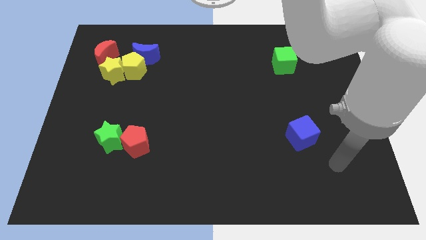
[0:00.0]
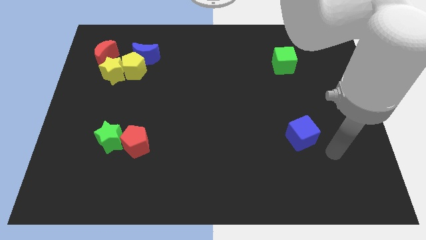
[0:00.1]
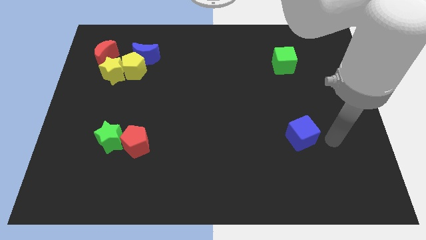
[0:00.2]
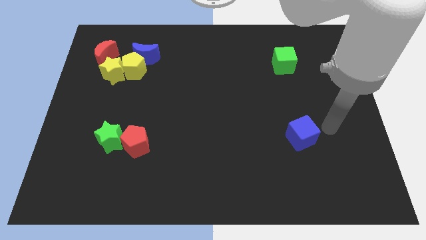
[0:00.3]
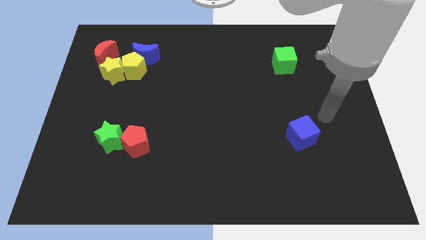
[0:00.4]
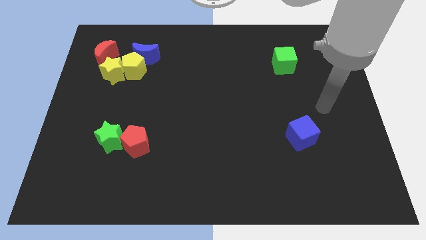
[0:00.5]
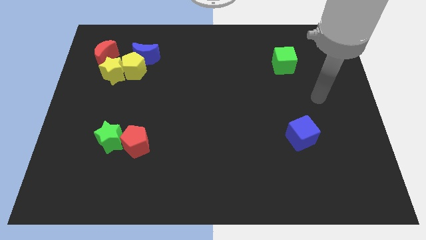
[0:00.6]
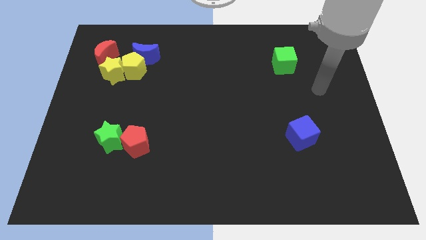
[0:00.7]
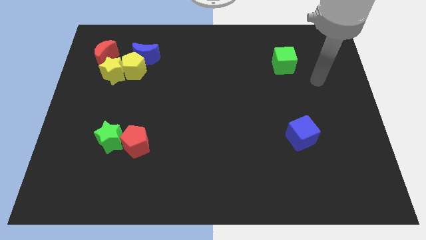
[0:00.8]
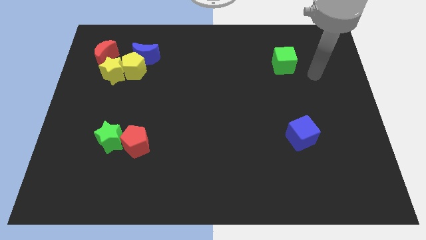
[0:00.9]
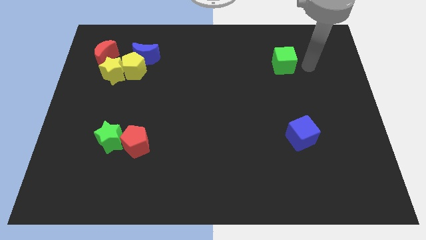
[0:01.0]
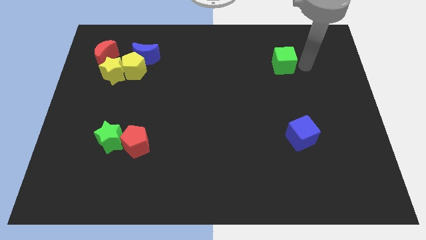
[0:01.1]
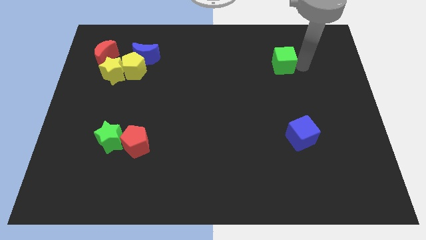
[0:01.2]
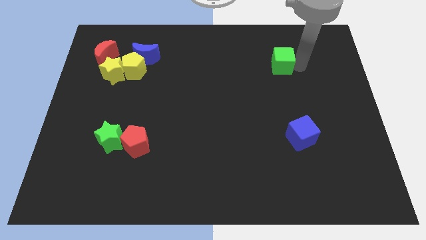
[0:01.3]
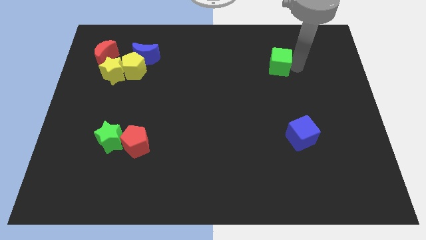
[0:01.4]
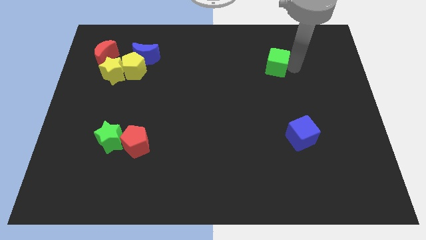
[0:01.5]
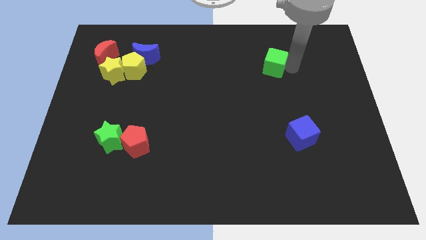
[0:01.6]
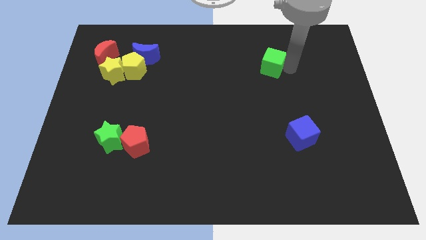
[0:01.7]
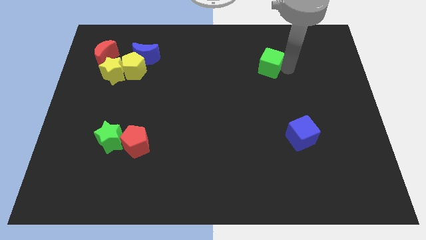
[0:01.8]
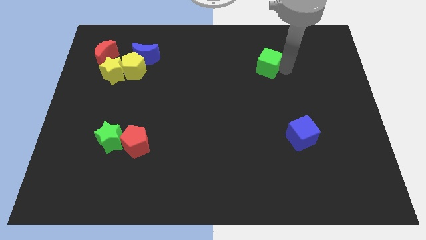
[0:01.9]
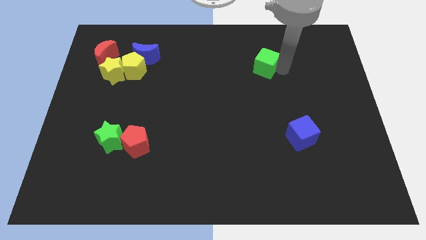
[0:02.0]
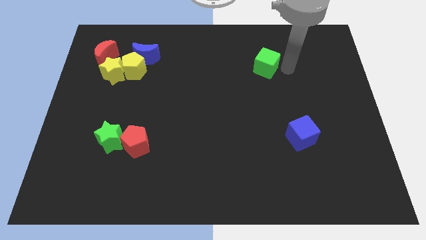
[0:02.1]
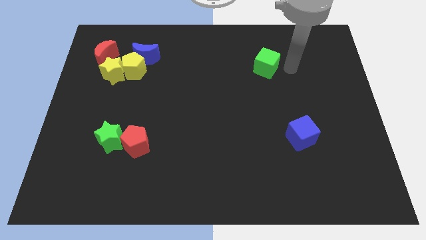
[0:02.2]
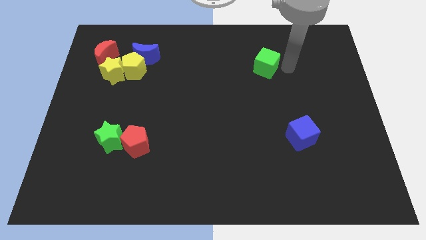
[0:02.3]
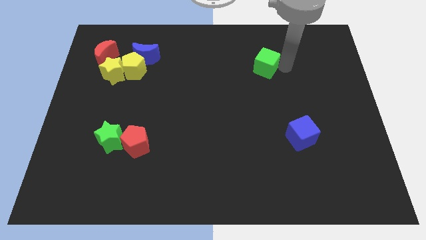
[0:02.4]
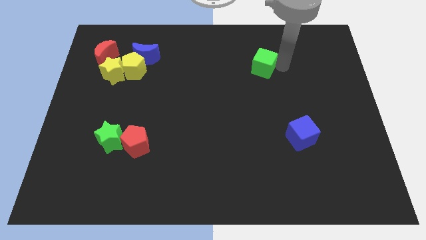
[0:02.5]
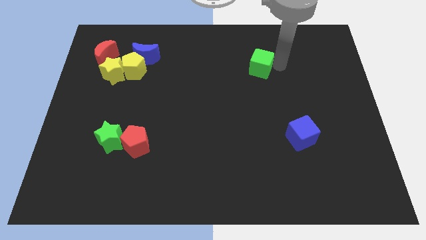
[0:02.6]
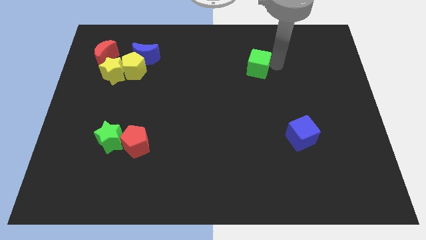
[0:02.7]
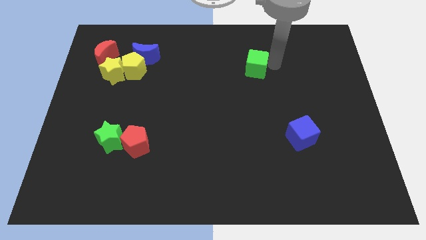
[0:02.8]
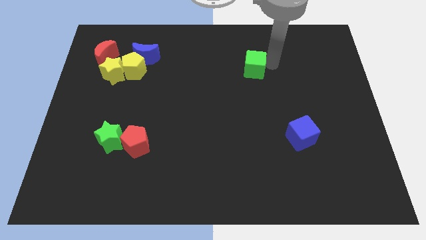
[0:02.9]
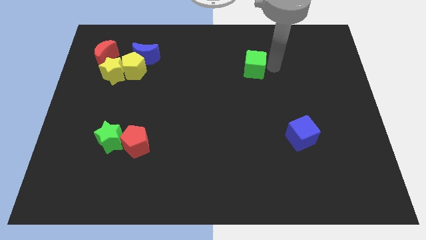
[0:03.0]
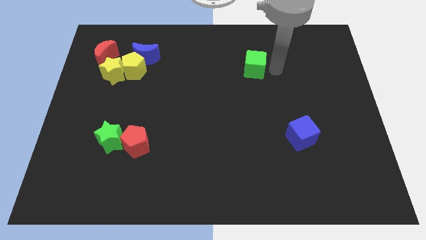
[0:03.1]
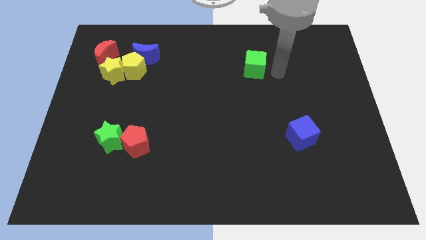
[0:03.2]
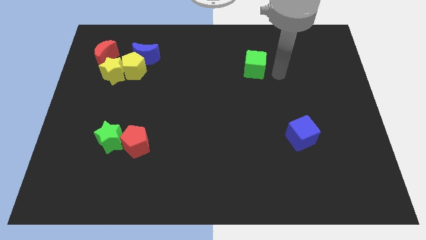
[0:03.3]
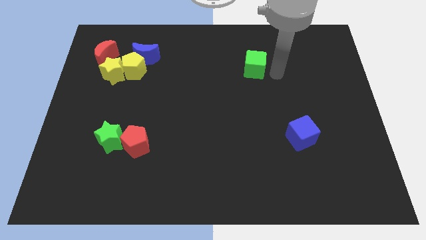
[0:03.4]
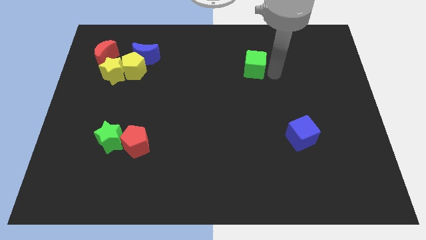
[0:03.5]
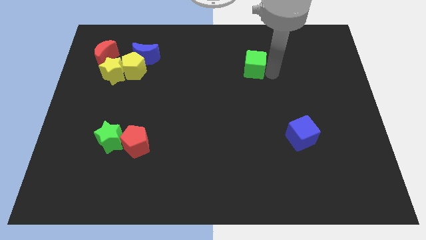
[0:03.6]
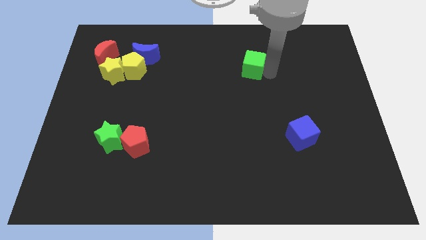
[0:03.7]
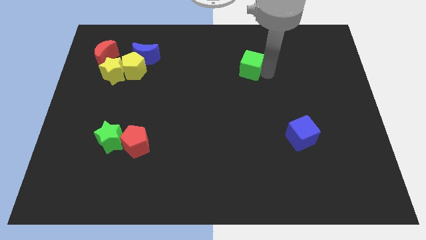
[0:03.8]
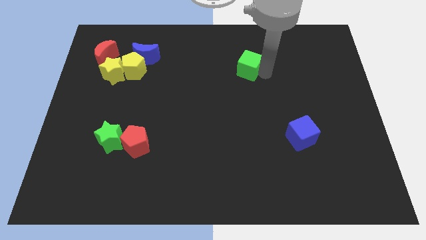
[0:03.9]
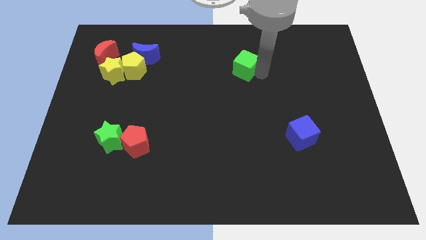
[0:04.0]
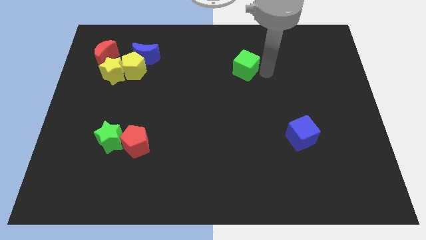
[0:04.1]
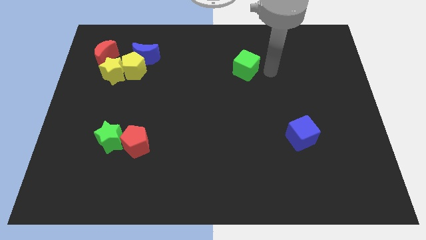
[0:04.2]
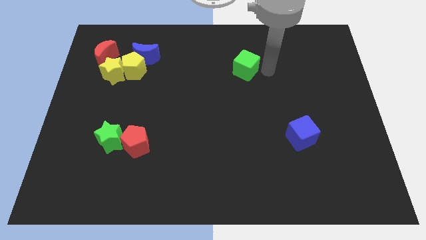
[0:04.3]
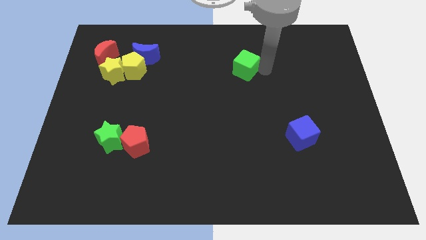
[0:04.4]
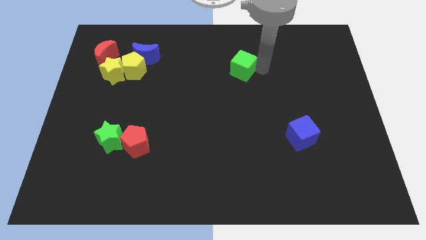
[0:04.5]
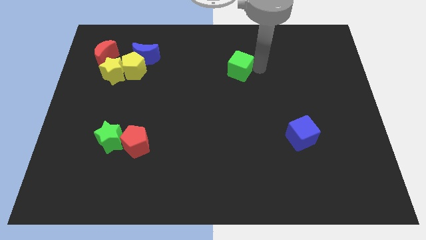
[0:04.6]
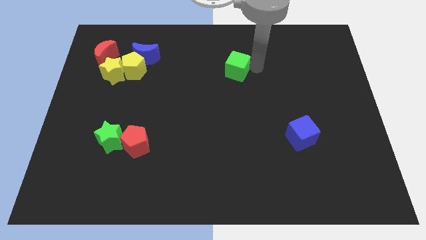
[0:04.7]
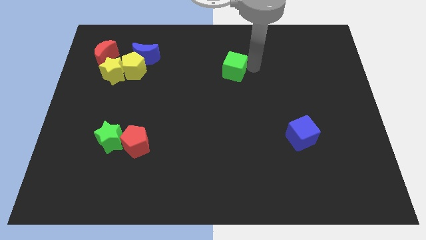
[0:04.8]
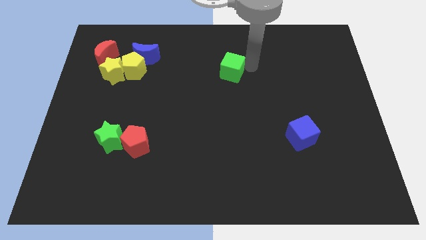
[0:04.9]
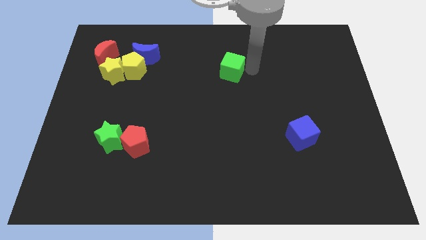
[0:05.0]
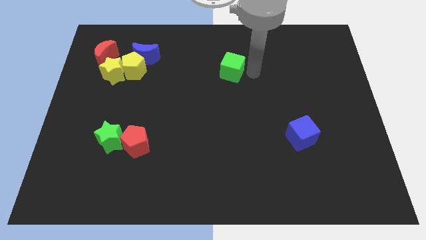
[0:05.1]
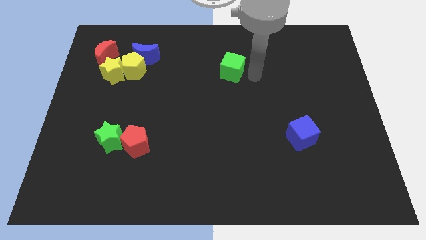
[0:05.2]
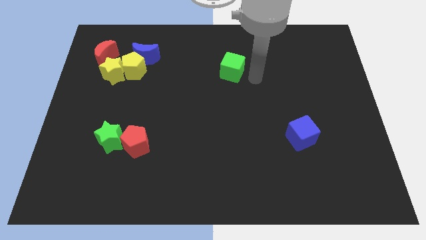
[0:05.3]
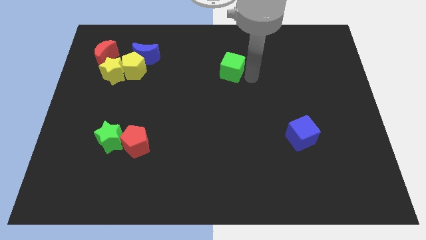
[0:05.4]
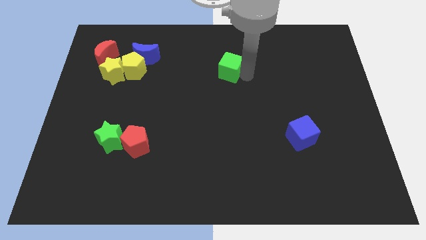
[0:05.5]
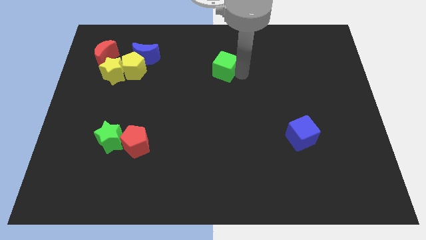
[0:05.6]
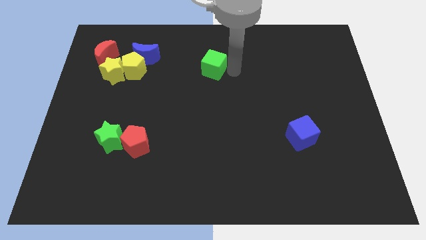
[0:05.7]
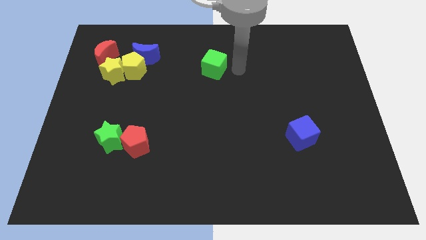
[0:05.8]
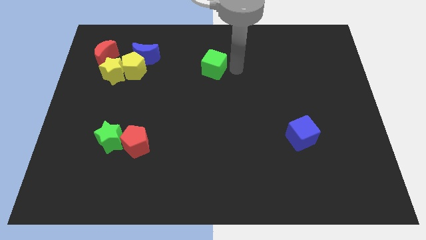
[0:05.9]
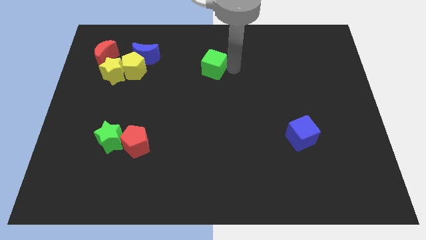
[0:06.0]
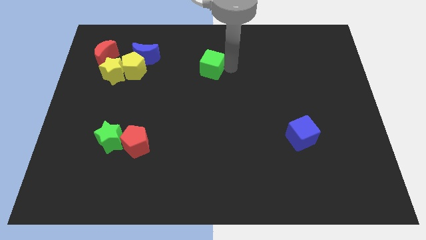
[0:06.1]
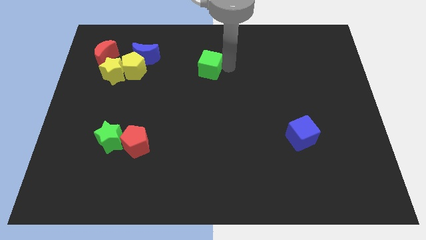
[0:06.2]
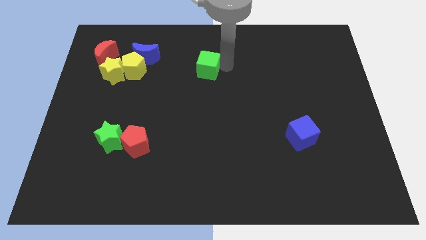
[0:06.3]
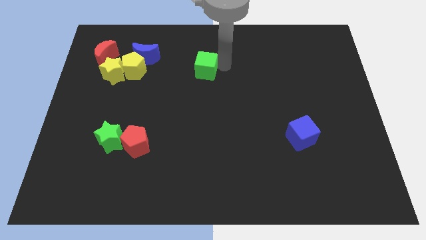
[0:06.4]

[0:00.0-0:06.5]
push the green cube to the left

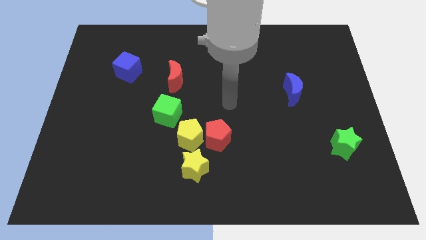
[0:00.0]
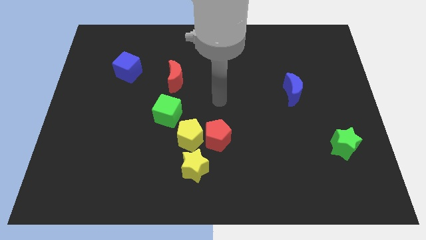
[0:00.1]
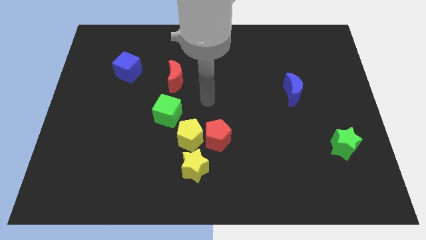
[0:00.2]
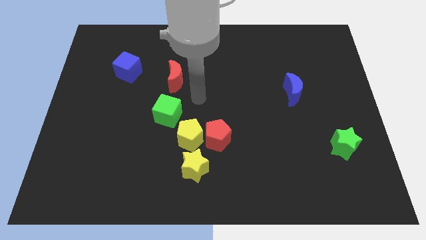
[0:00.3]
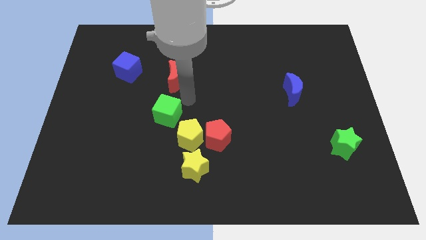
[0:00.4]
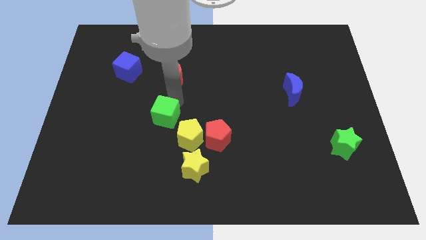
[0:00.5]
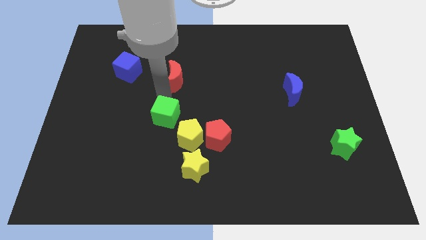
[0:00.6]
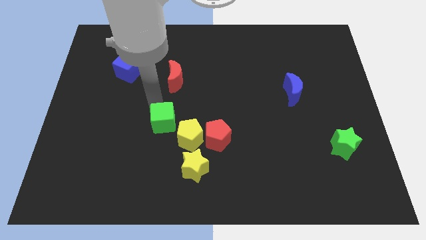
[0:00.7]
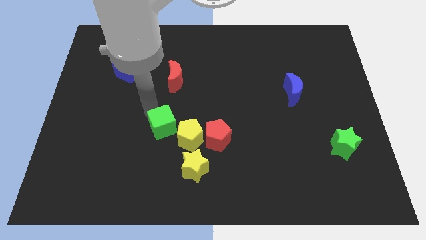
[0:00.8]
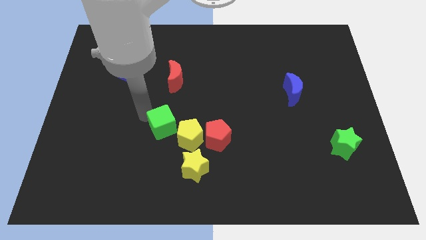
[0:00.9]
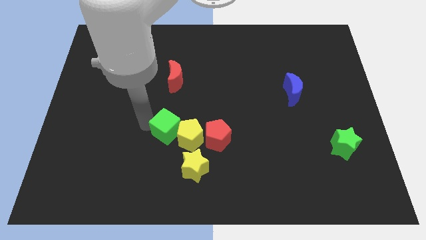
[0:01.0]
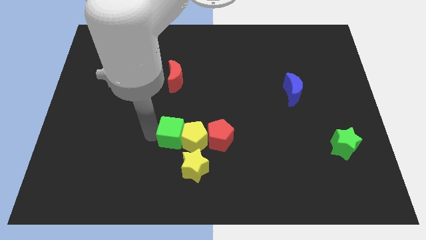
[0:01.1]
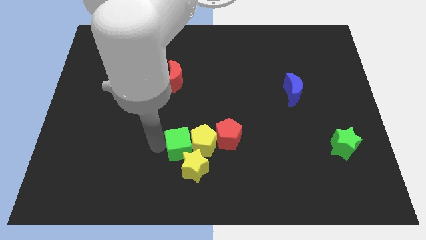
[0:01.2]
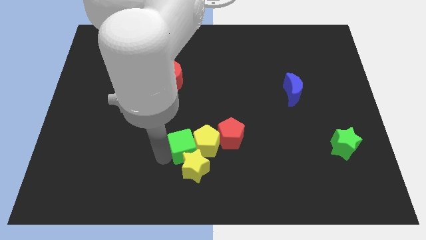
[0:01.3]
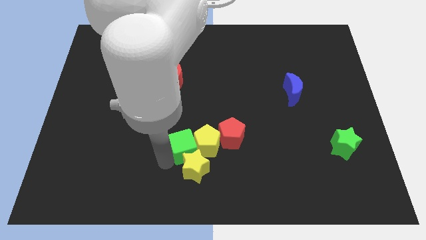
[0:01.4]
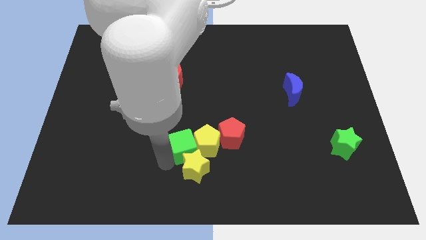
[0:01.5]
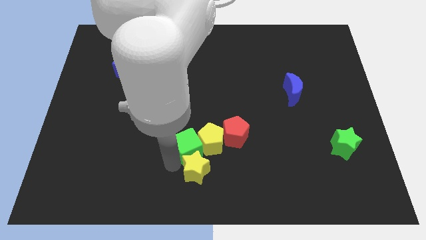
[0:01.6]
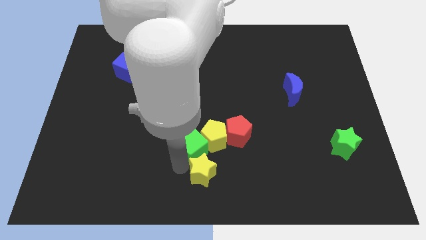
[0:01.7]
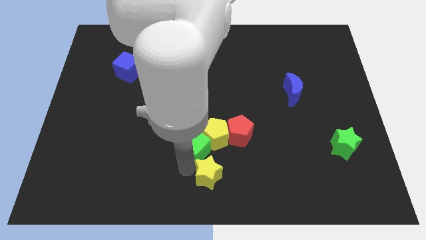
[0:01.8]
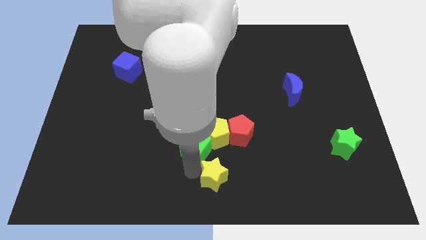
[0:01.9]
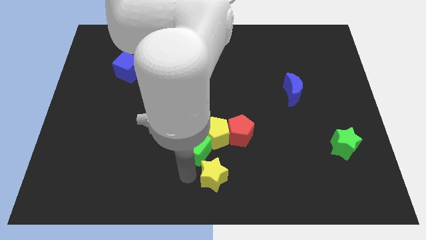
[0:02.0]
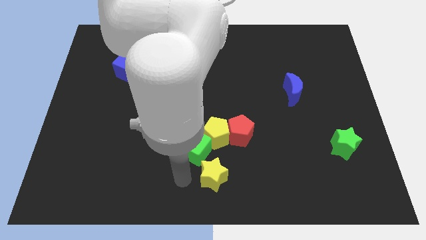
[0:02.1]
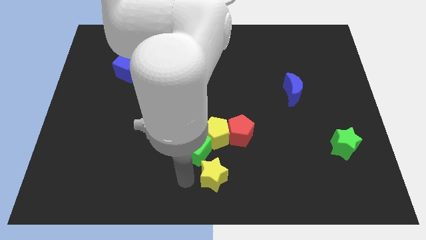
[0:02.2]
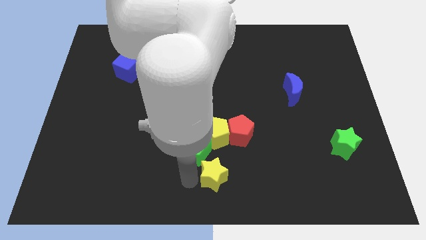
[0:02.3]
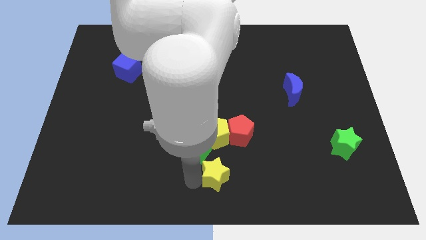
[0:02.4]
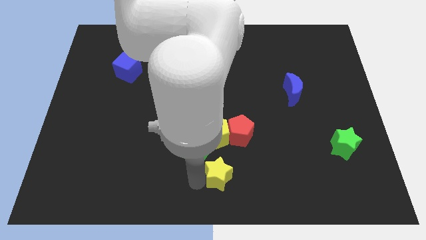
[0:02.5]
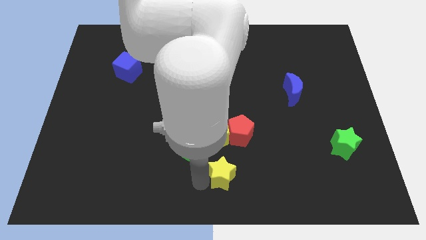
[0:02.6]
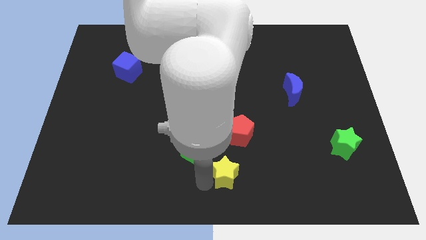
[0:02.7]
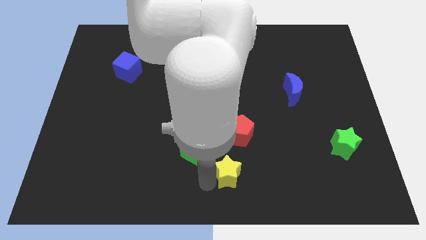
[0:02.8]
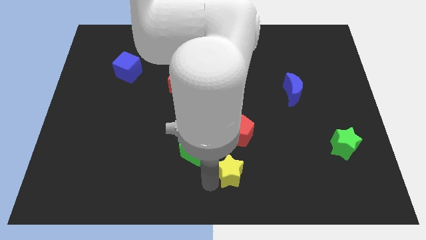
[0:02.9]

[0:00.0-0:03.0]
slide the yellow star somewhat right
